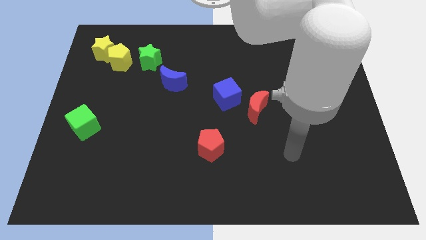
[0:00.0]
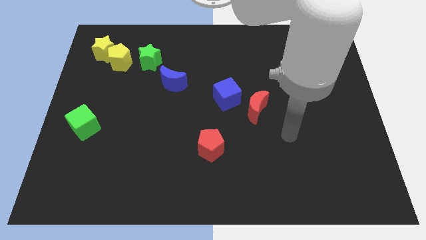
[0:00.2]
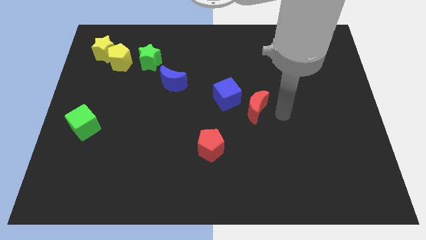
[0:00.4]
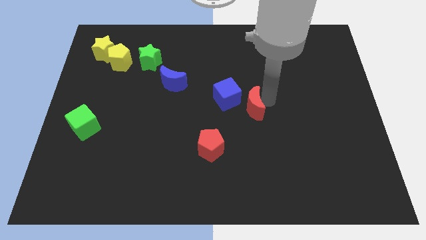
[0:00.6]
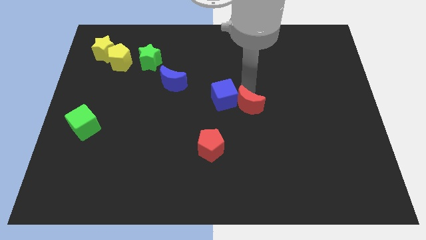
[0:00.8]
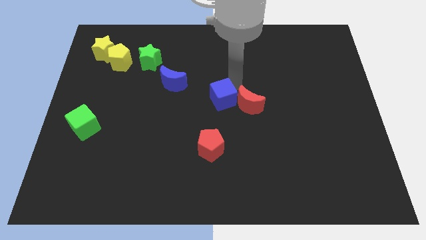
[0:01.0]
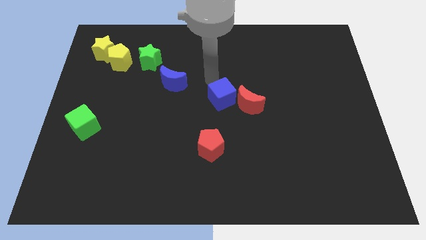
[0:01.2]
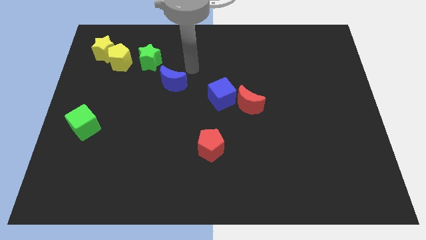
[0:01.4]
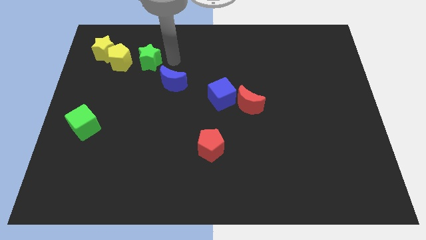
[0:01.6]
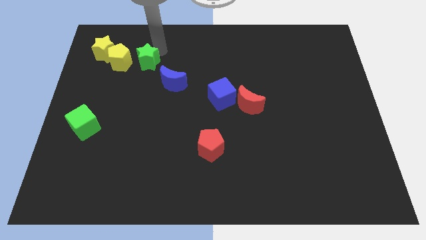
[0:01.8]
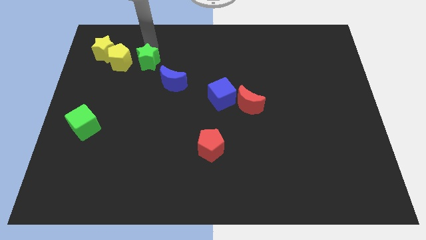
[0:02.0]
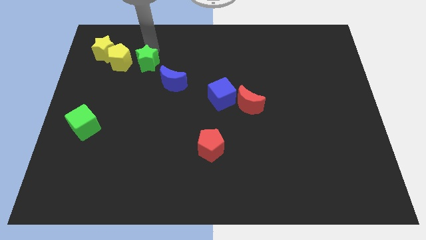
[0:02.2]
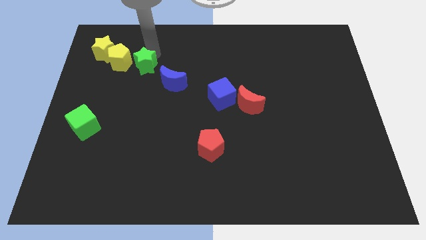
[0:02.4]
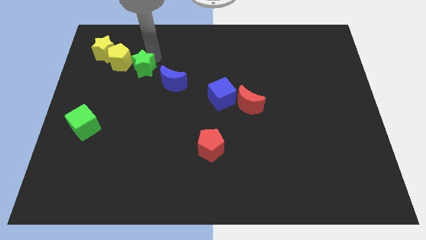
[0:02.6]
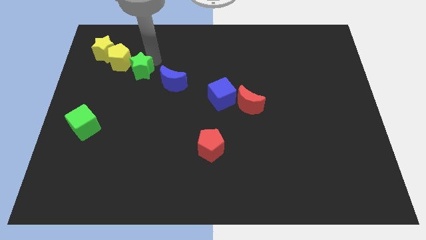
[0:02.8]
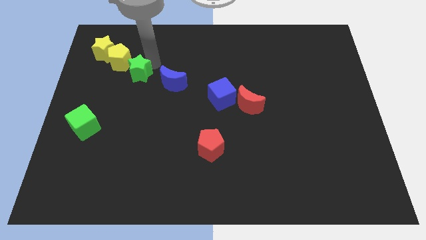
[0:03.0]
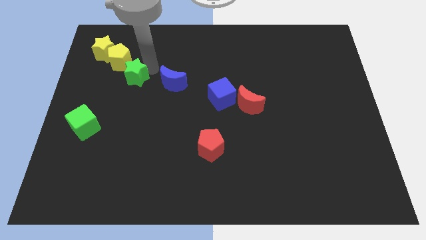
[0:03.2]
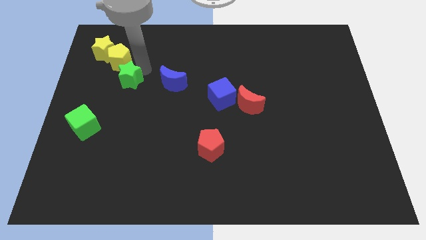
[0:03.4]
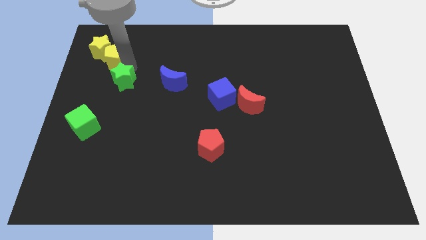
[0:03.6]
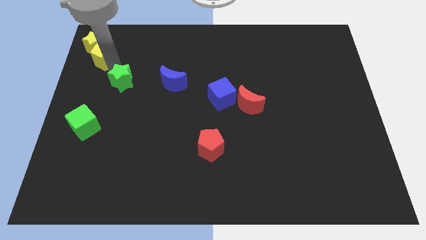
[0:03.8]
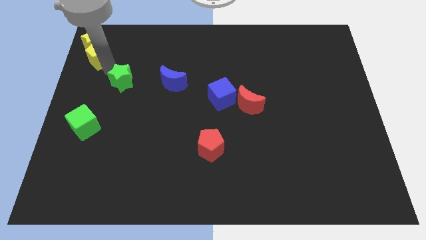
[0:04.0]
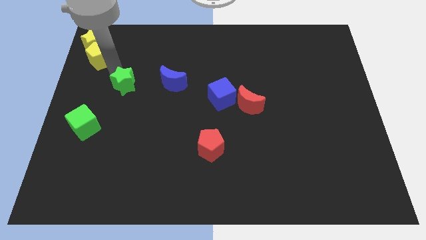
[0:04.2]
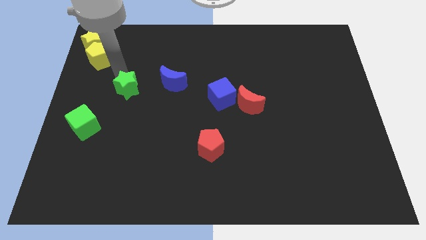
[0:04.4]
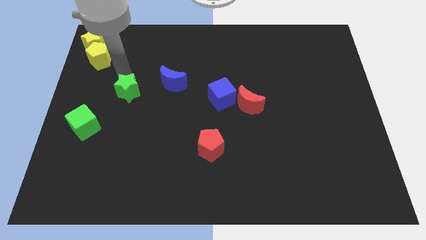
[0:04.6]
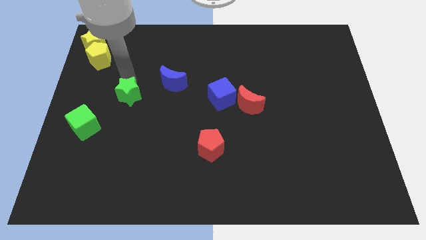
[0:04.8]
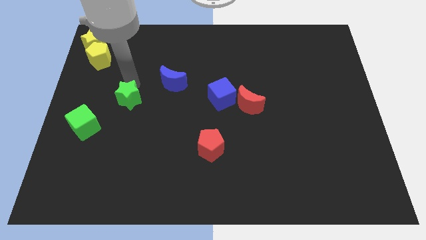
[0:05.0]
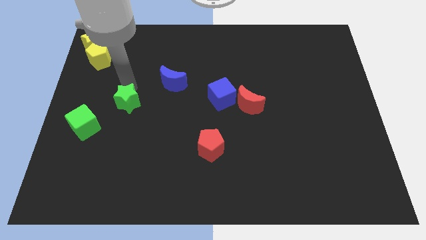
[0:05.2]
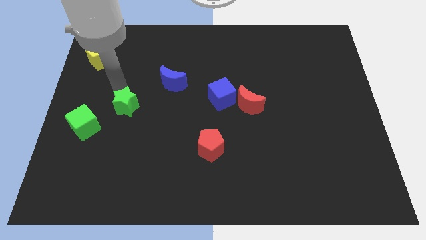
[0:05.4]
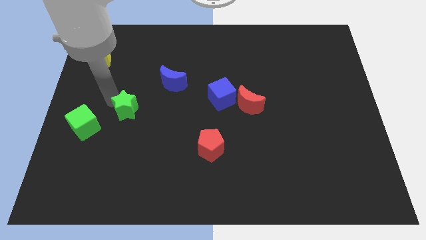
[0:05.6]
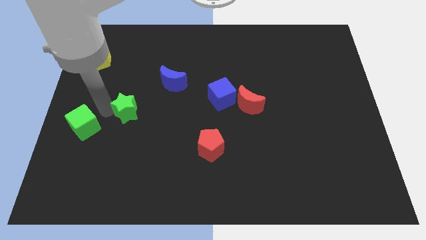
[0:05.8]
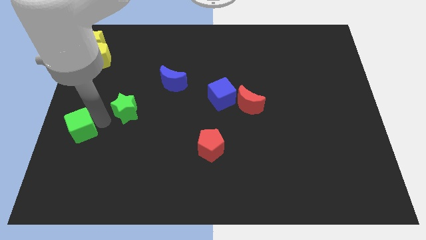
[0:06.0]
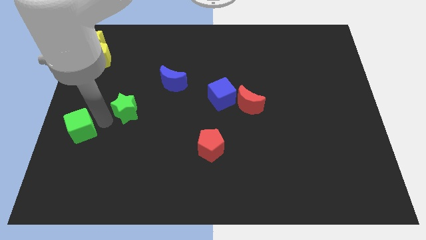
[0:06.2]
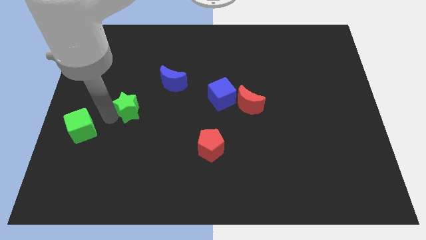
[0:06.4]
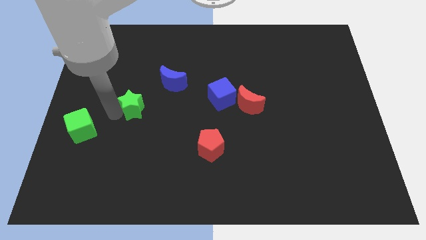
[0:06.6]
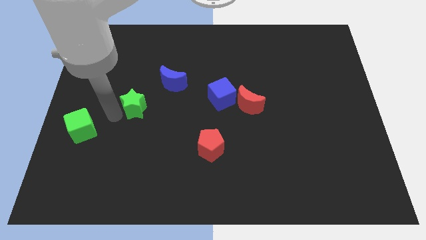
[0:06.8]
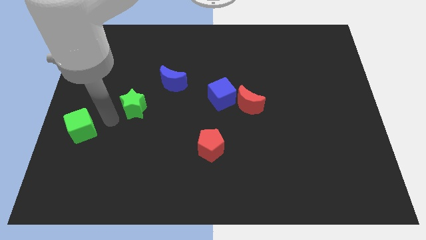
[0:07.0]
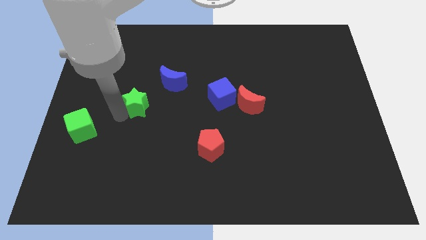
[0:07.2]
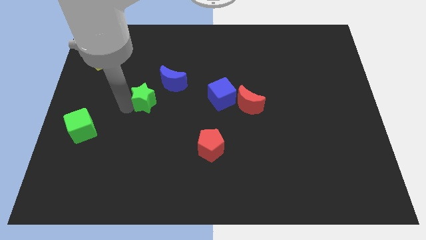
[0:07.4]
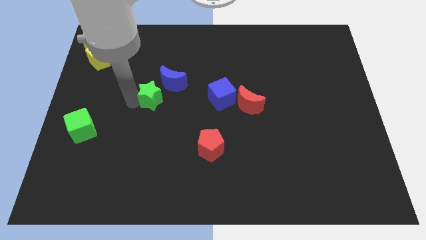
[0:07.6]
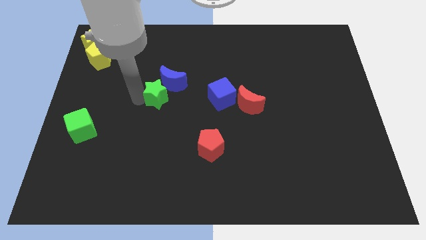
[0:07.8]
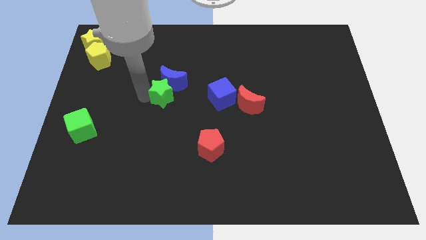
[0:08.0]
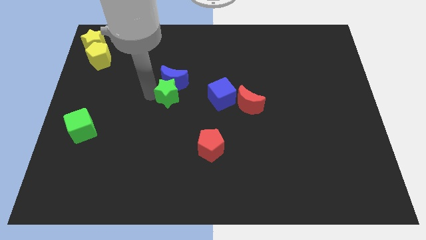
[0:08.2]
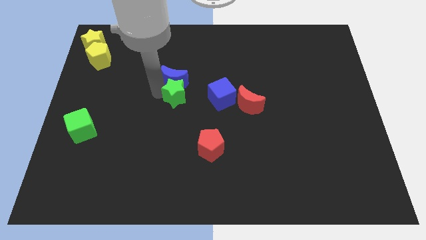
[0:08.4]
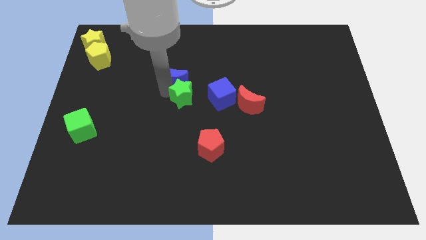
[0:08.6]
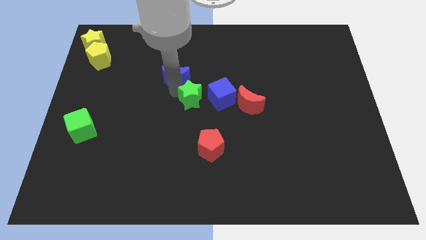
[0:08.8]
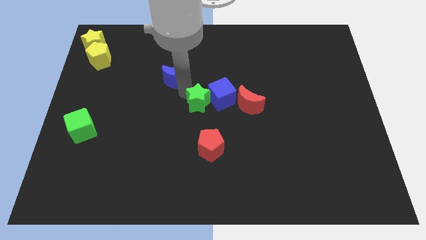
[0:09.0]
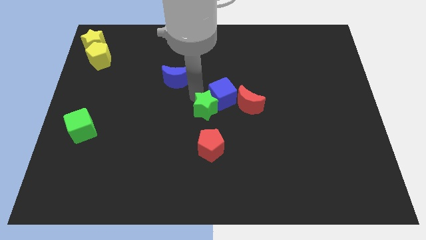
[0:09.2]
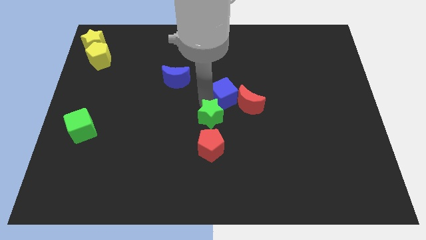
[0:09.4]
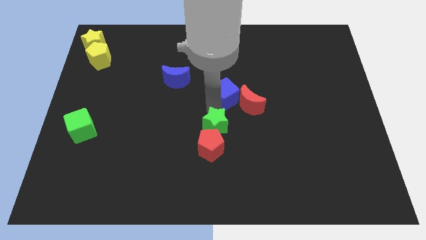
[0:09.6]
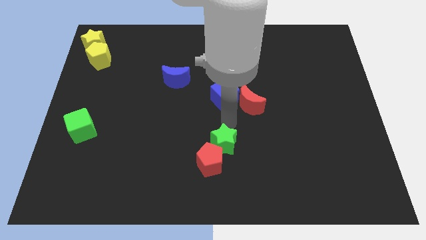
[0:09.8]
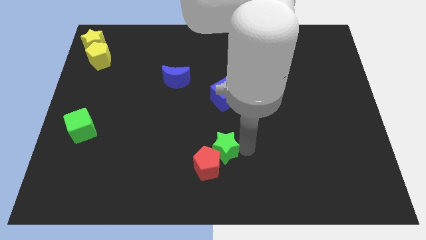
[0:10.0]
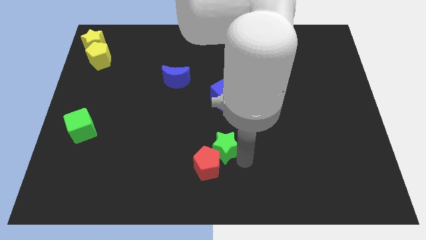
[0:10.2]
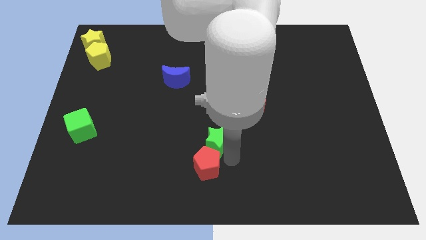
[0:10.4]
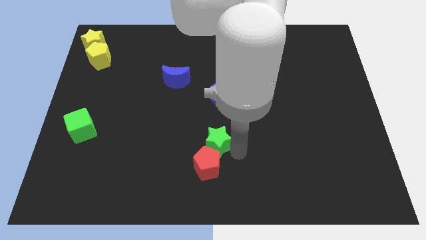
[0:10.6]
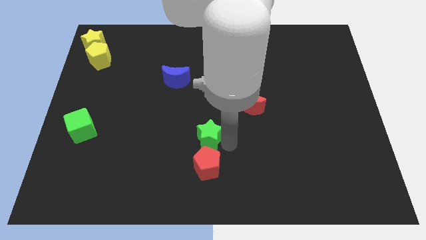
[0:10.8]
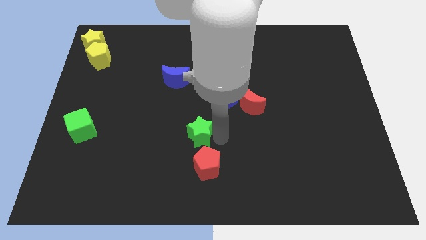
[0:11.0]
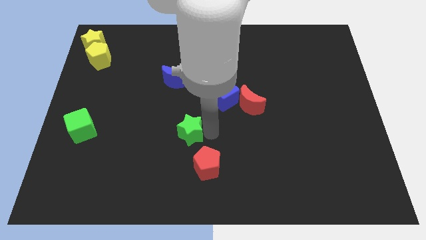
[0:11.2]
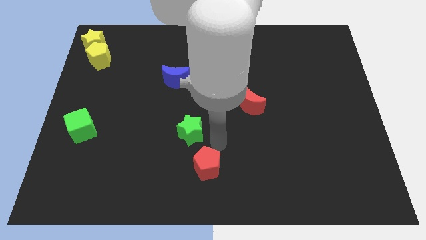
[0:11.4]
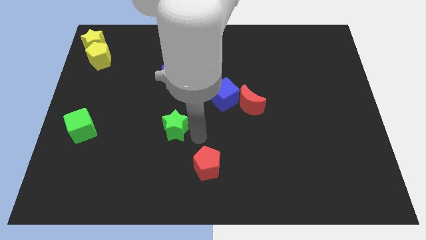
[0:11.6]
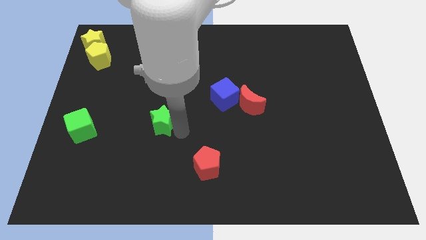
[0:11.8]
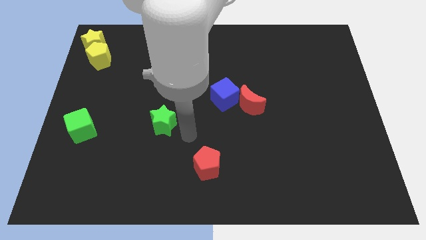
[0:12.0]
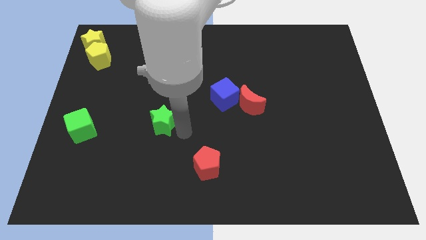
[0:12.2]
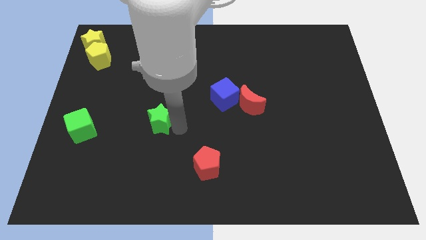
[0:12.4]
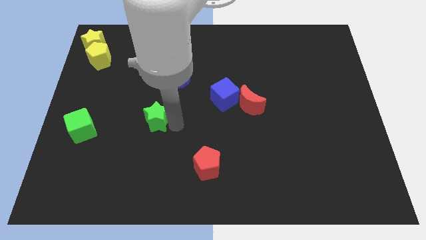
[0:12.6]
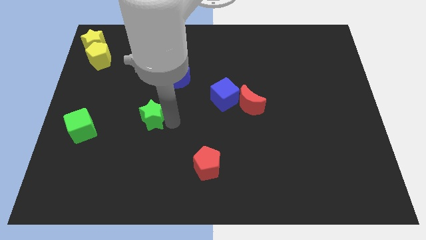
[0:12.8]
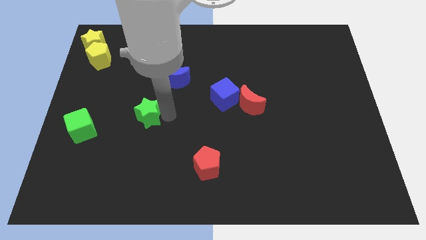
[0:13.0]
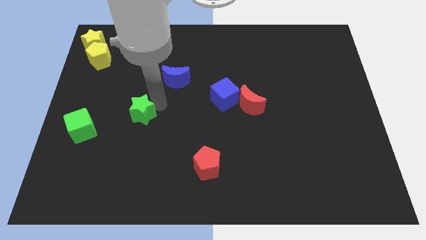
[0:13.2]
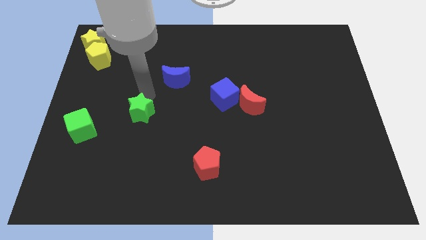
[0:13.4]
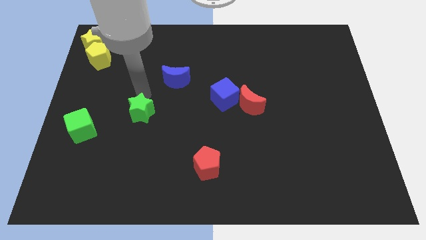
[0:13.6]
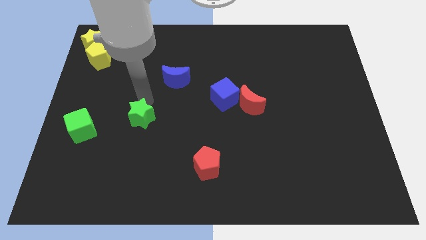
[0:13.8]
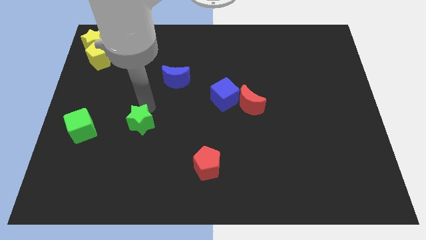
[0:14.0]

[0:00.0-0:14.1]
move the green star down

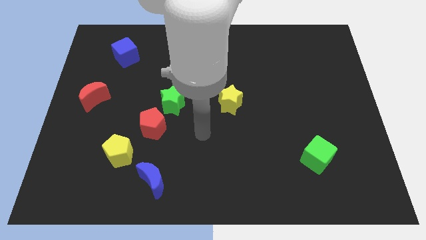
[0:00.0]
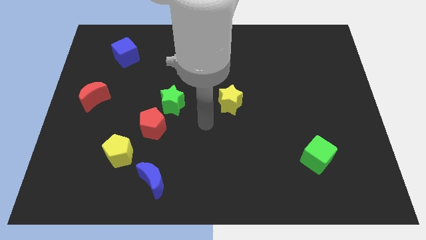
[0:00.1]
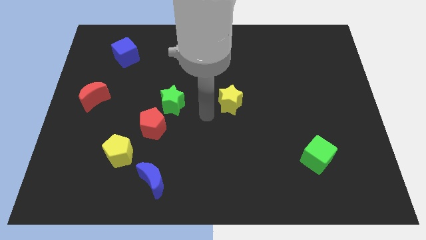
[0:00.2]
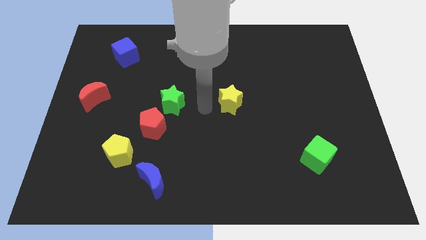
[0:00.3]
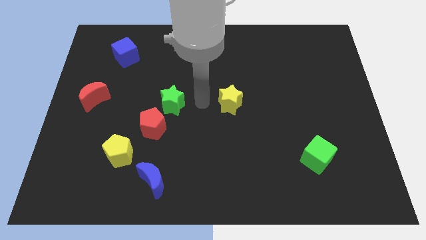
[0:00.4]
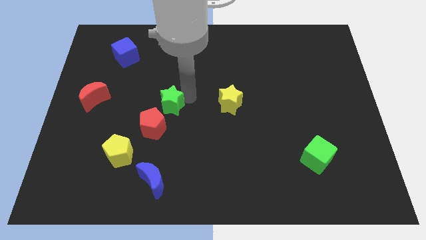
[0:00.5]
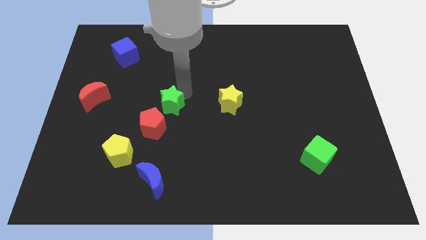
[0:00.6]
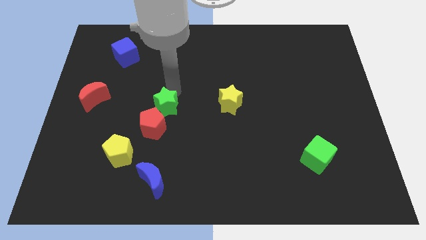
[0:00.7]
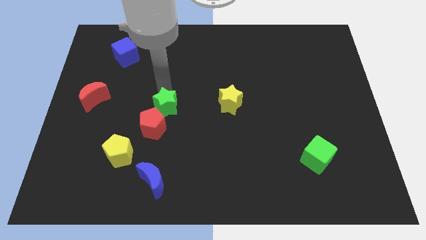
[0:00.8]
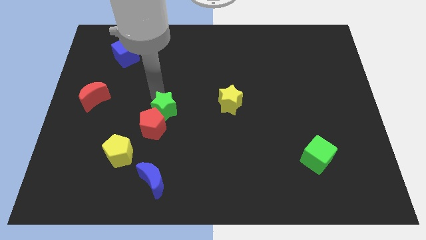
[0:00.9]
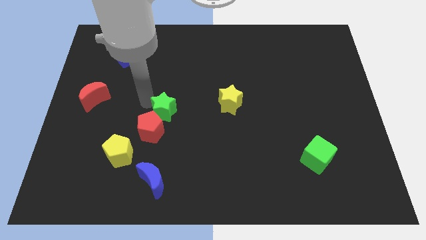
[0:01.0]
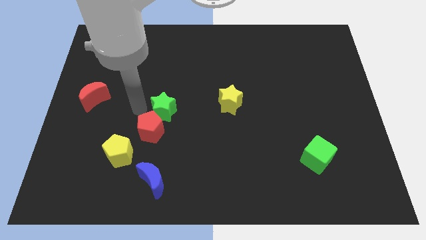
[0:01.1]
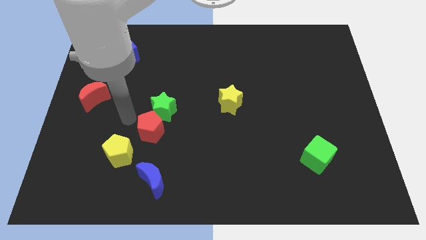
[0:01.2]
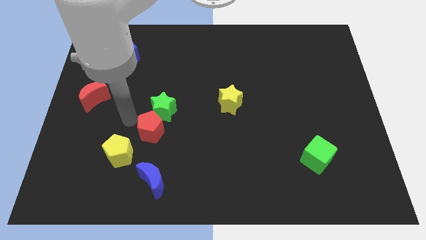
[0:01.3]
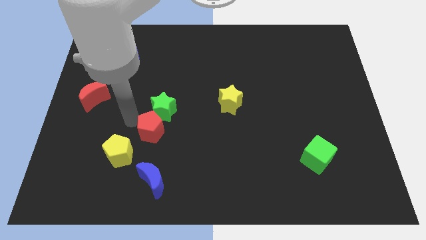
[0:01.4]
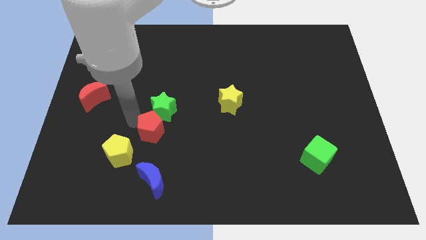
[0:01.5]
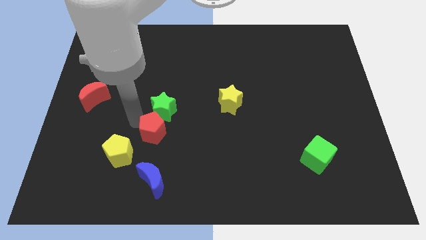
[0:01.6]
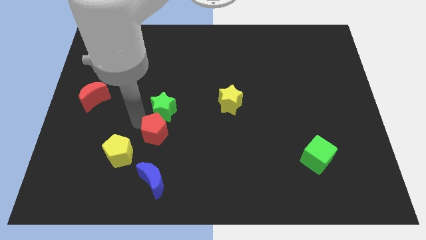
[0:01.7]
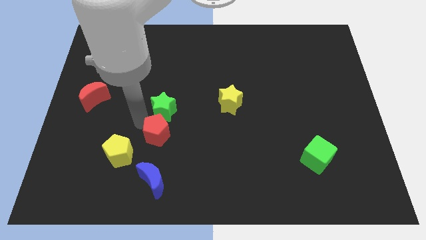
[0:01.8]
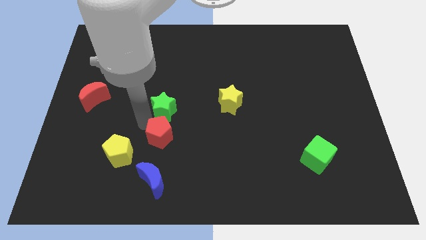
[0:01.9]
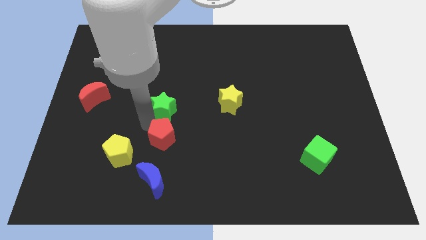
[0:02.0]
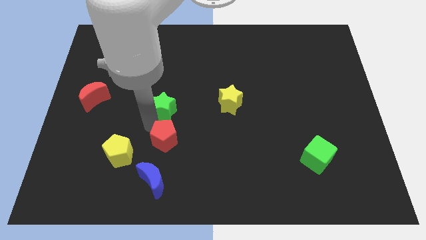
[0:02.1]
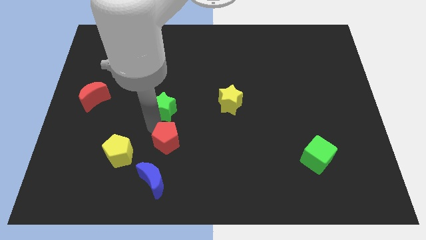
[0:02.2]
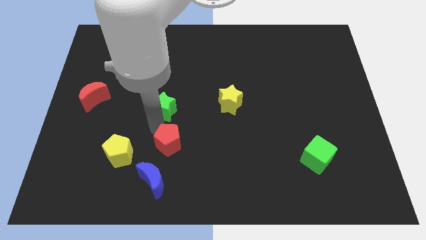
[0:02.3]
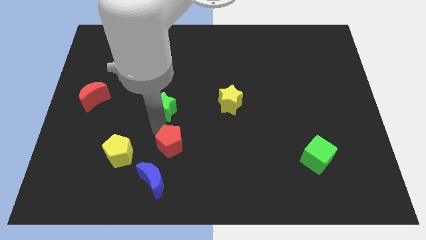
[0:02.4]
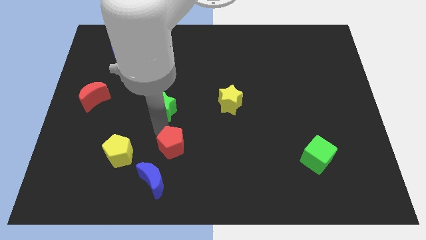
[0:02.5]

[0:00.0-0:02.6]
slightly slide the red pentagon down and to the right diagonally
